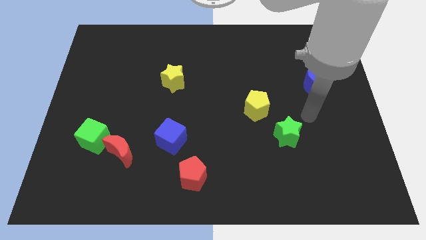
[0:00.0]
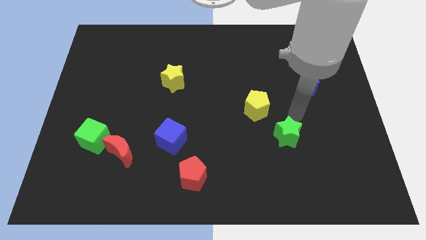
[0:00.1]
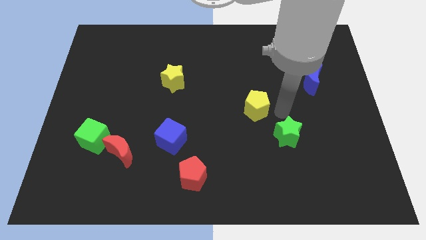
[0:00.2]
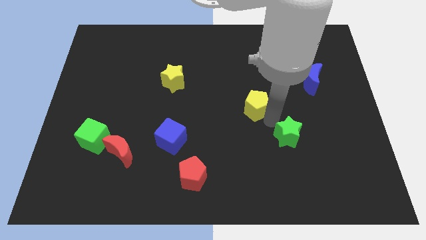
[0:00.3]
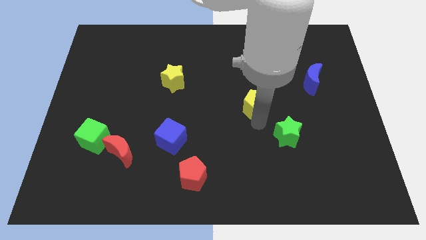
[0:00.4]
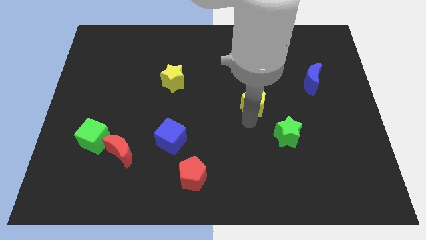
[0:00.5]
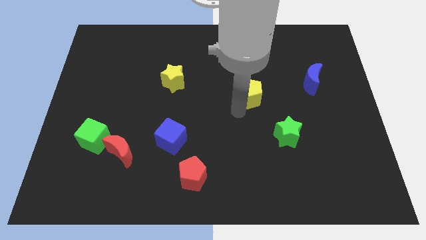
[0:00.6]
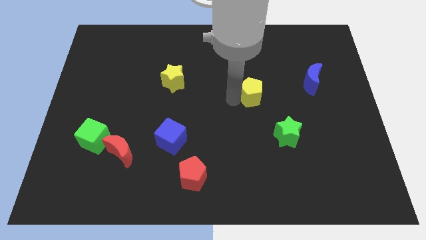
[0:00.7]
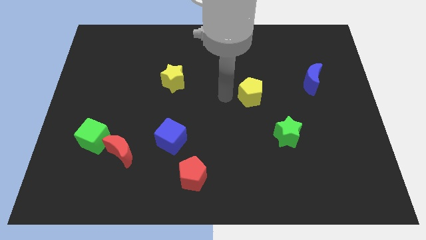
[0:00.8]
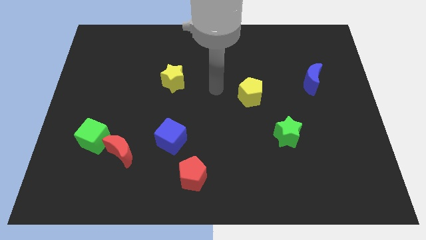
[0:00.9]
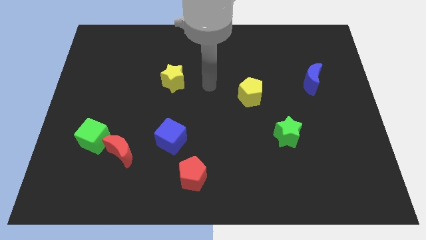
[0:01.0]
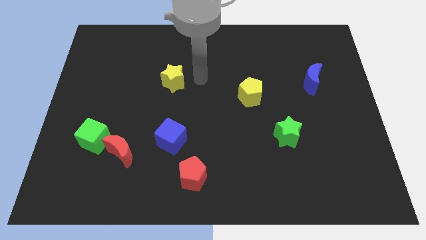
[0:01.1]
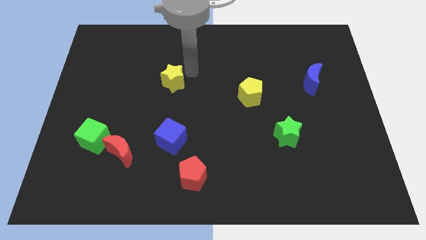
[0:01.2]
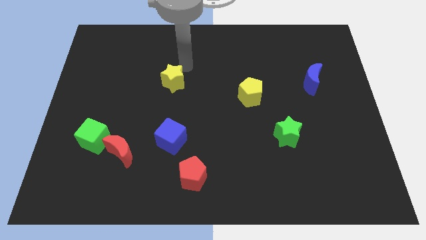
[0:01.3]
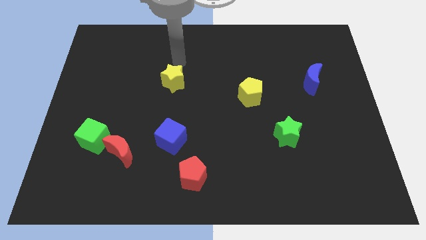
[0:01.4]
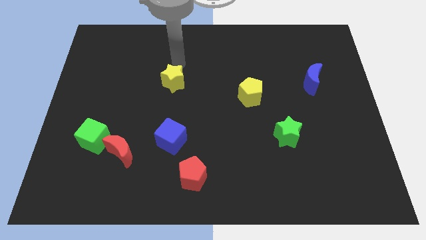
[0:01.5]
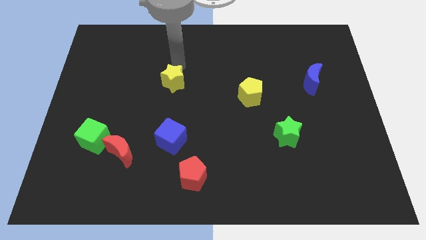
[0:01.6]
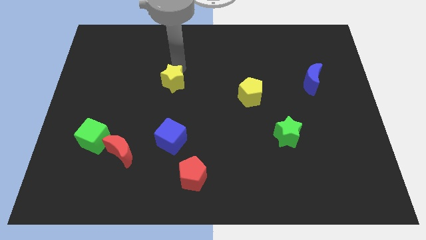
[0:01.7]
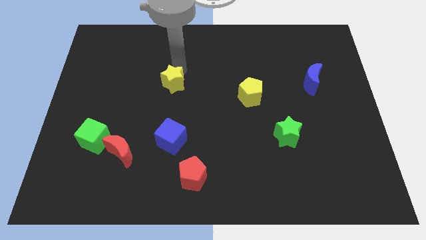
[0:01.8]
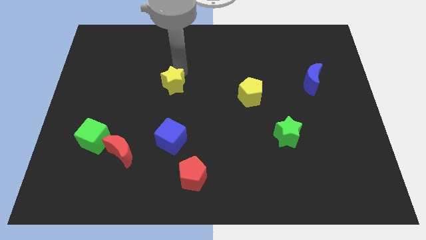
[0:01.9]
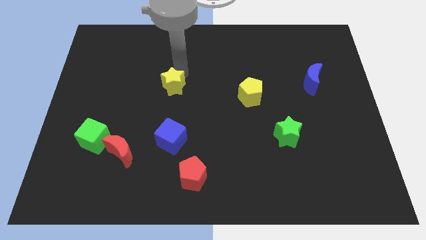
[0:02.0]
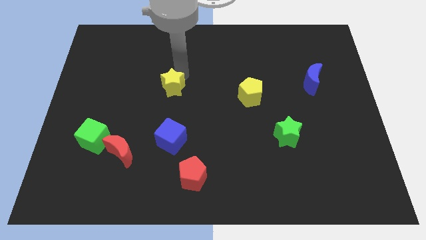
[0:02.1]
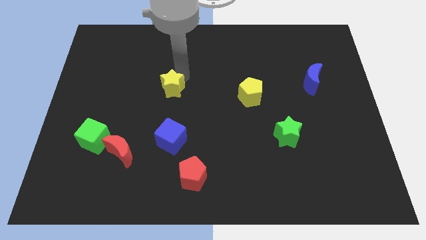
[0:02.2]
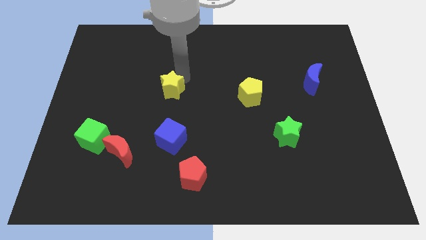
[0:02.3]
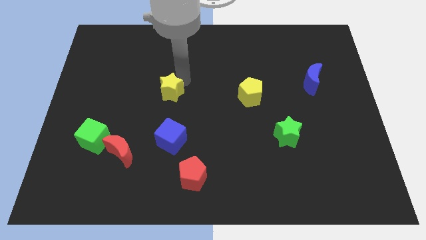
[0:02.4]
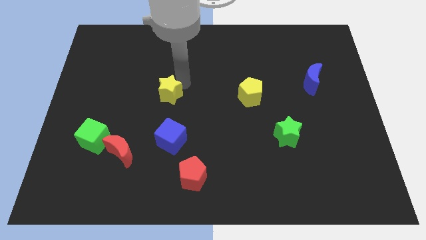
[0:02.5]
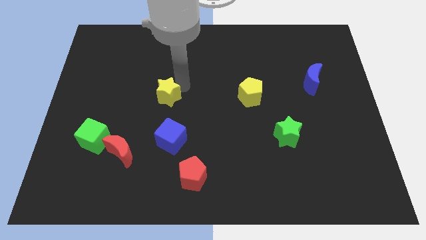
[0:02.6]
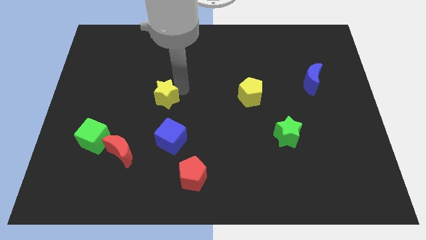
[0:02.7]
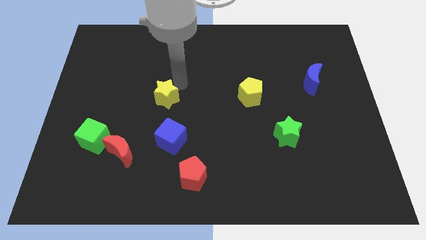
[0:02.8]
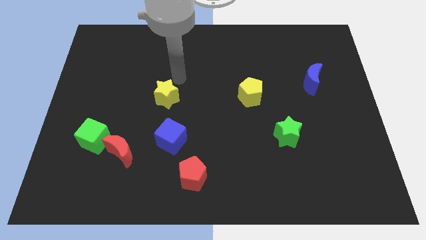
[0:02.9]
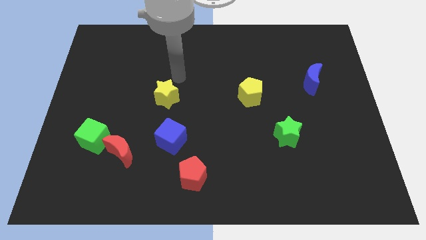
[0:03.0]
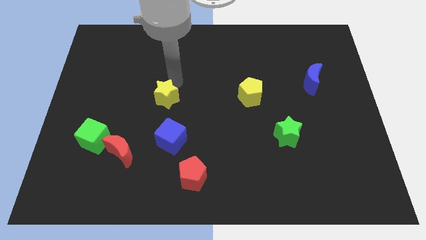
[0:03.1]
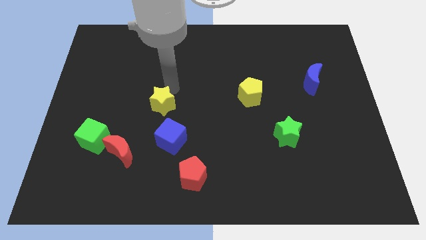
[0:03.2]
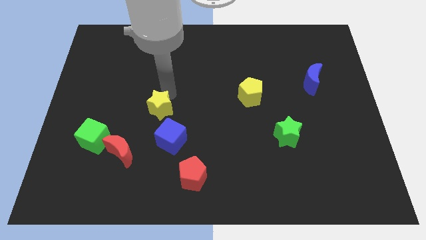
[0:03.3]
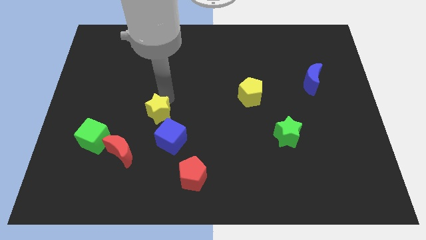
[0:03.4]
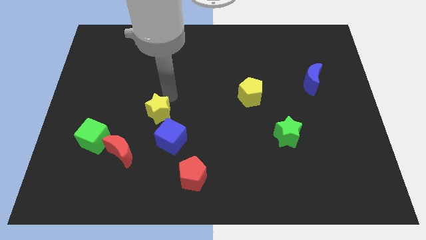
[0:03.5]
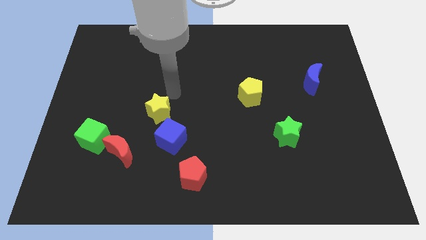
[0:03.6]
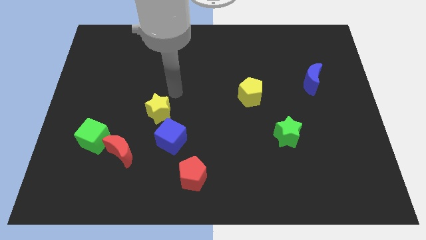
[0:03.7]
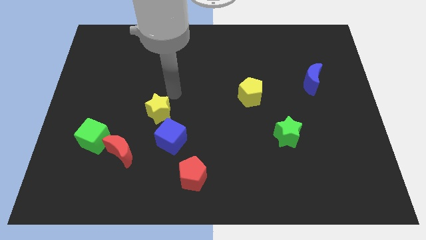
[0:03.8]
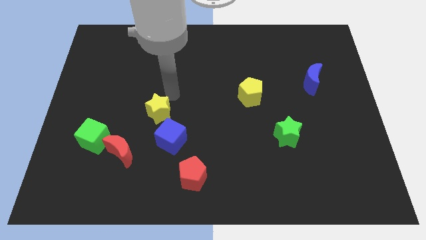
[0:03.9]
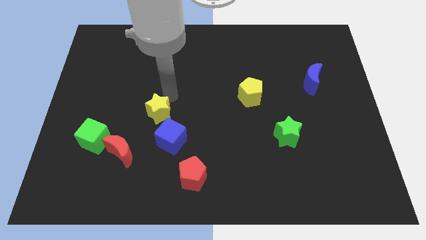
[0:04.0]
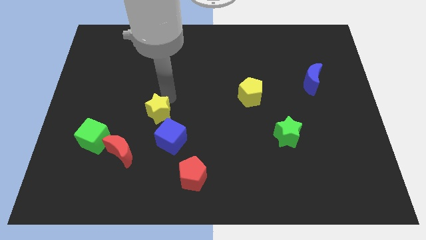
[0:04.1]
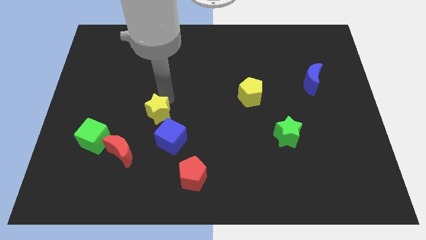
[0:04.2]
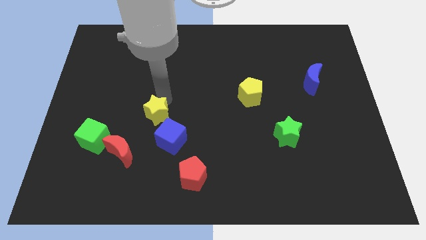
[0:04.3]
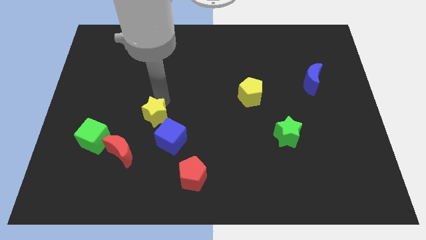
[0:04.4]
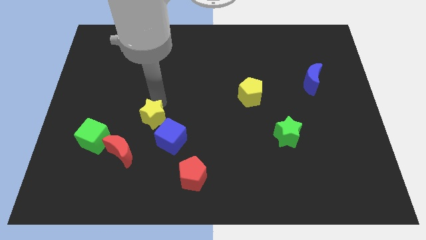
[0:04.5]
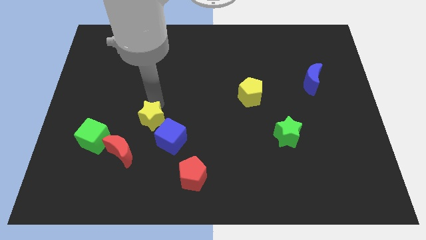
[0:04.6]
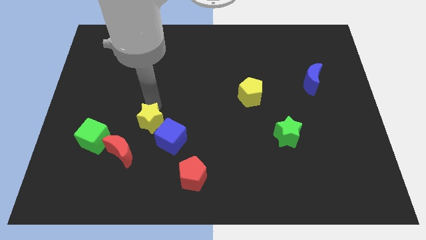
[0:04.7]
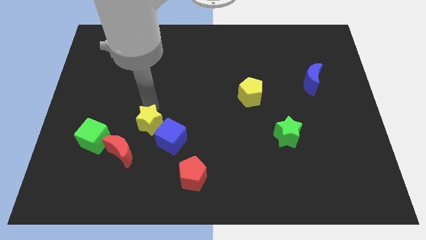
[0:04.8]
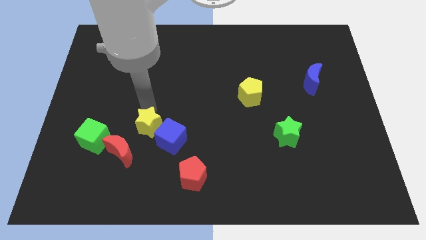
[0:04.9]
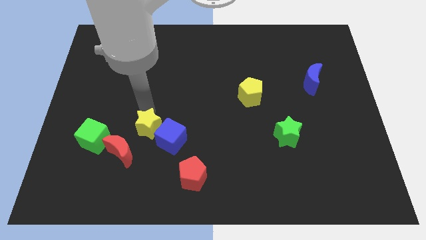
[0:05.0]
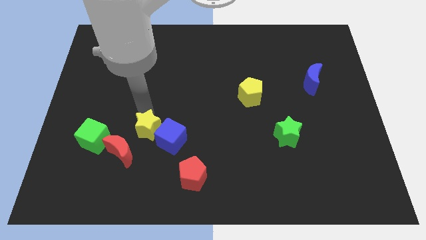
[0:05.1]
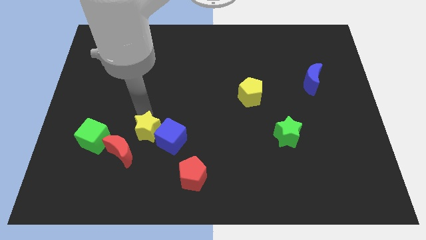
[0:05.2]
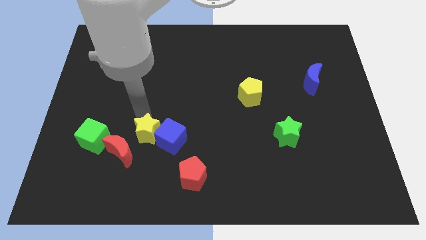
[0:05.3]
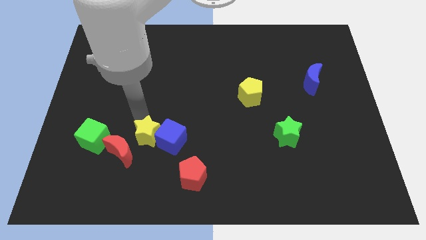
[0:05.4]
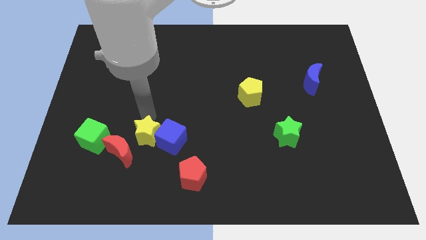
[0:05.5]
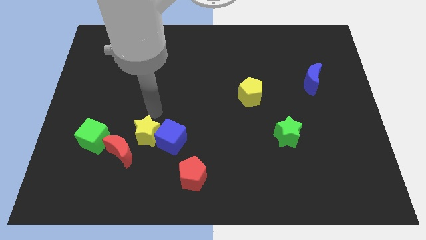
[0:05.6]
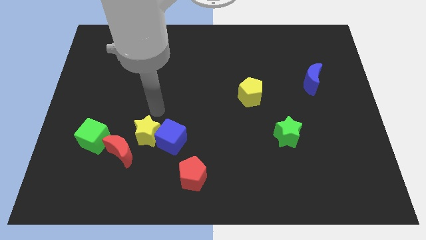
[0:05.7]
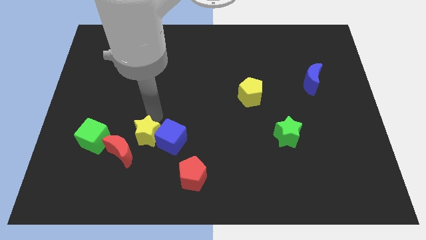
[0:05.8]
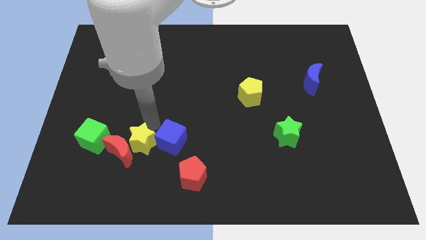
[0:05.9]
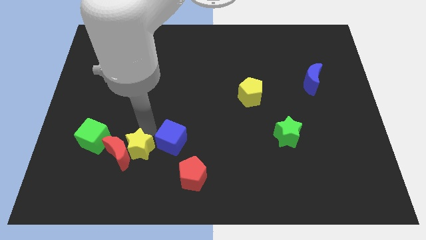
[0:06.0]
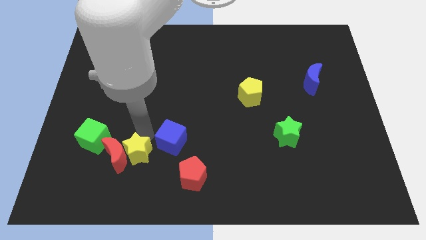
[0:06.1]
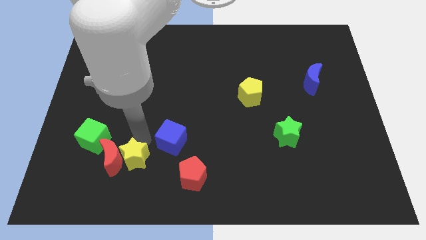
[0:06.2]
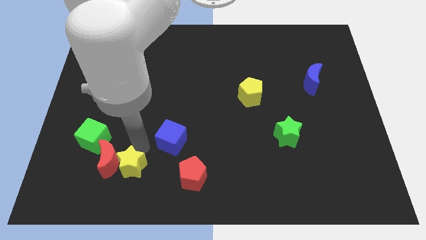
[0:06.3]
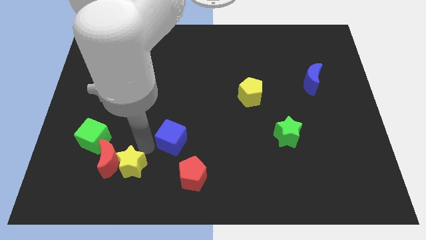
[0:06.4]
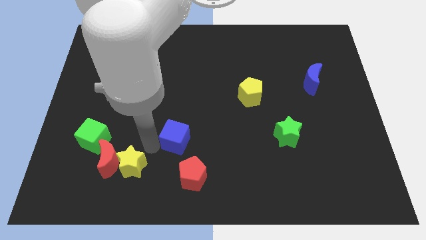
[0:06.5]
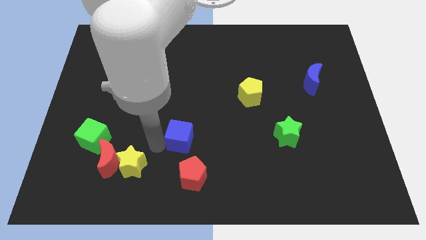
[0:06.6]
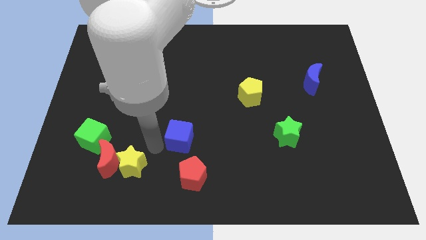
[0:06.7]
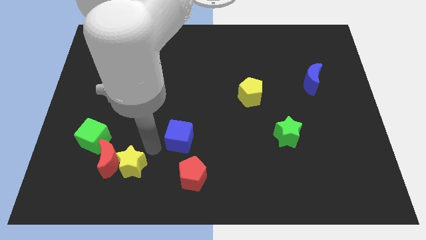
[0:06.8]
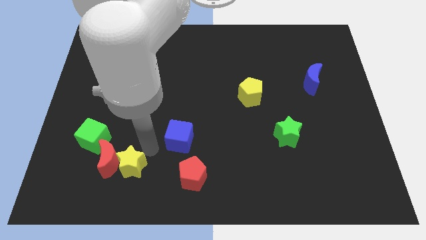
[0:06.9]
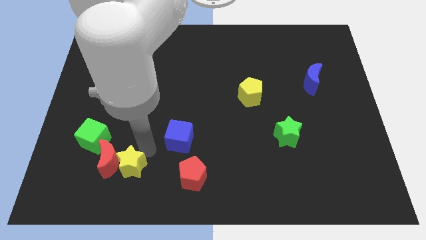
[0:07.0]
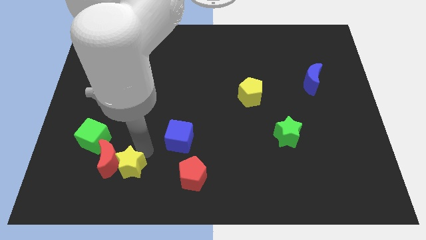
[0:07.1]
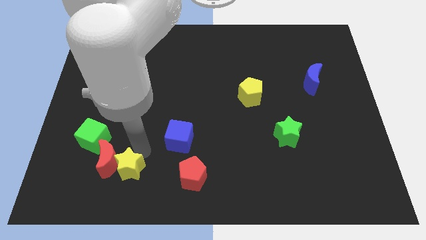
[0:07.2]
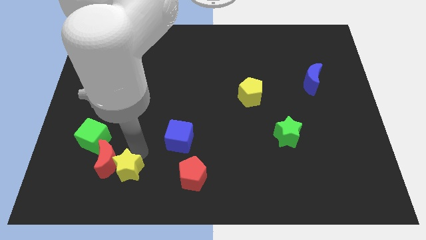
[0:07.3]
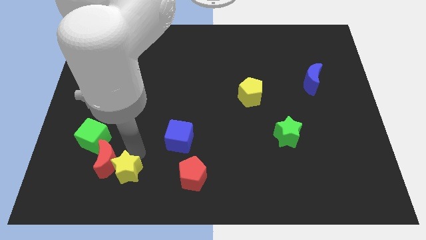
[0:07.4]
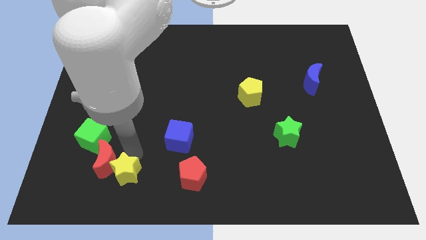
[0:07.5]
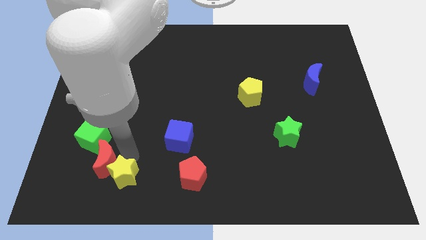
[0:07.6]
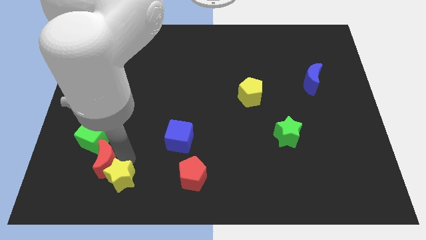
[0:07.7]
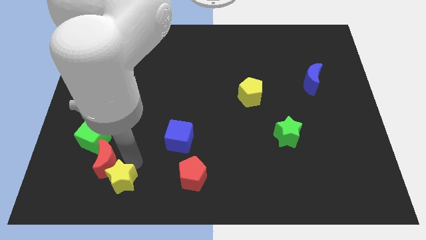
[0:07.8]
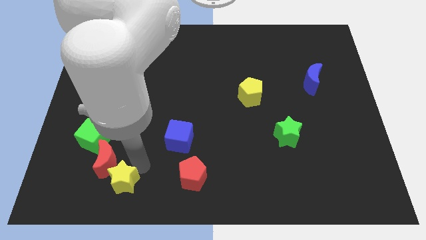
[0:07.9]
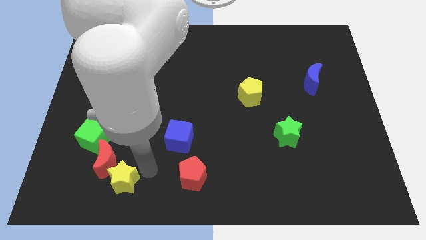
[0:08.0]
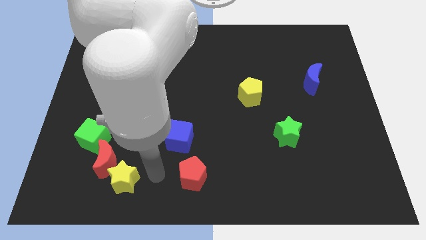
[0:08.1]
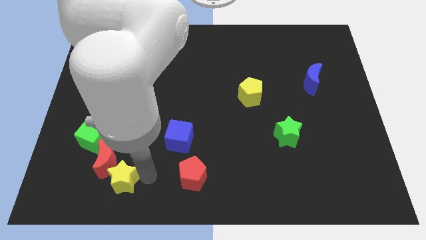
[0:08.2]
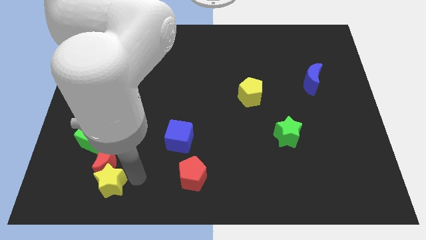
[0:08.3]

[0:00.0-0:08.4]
move the yellow star to the bottom left side of the red moon
